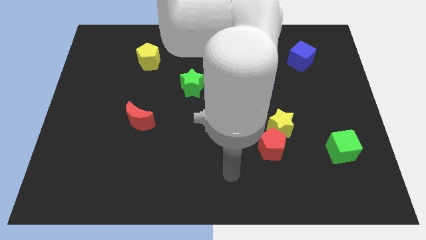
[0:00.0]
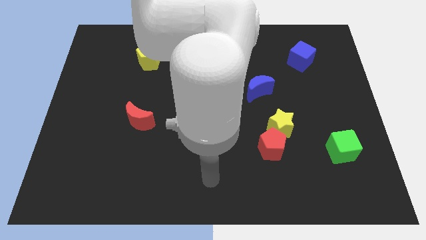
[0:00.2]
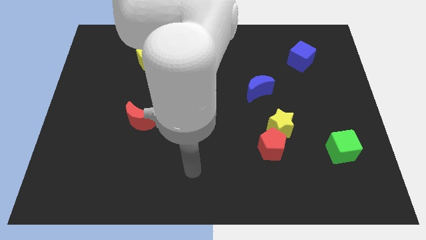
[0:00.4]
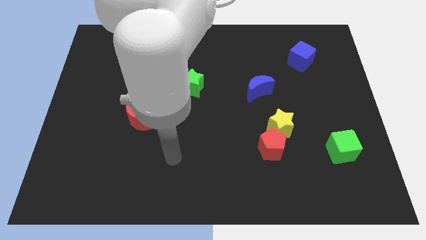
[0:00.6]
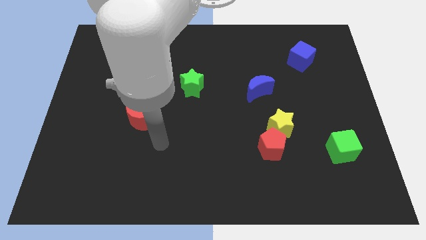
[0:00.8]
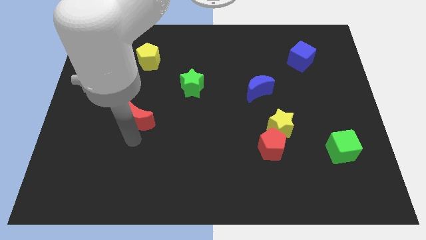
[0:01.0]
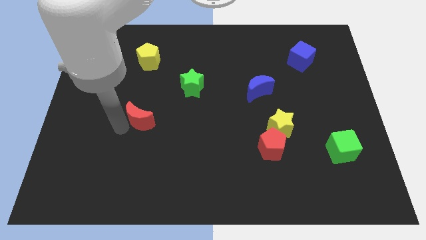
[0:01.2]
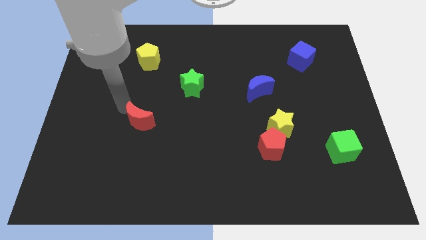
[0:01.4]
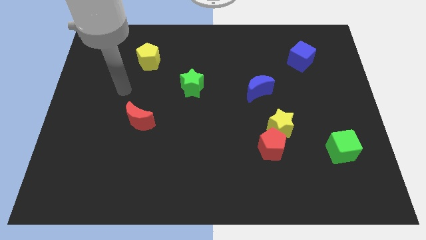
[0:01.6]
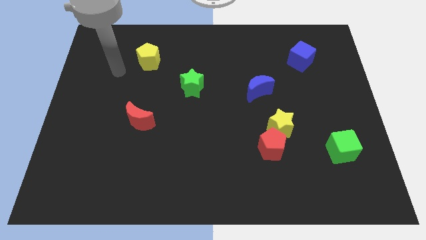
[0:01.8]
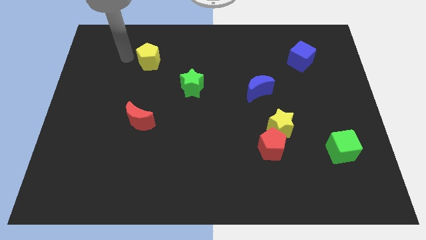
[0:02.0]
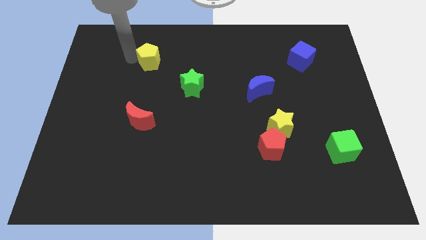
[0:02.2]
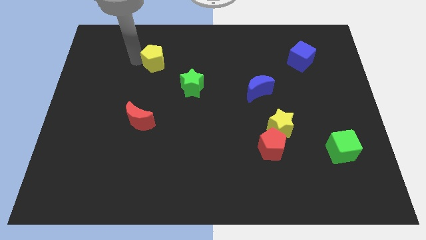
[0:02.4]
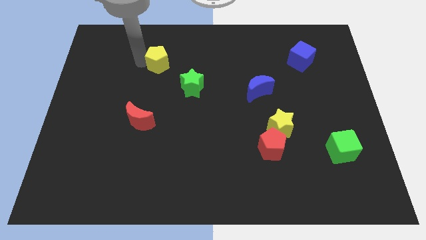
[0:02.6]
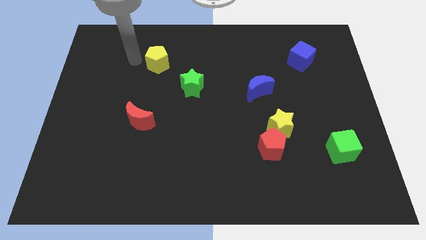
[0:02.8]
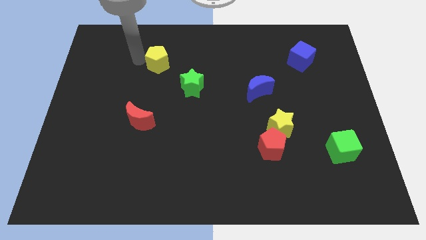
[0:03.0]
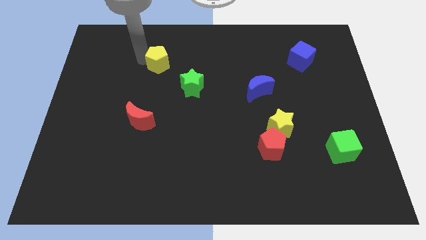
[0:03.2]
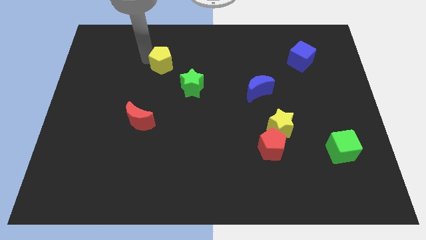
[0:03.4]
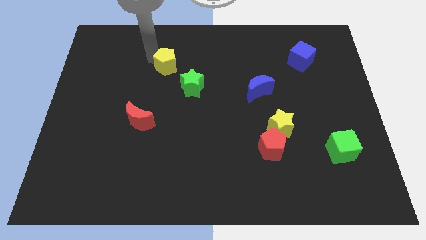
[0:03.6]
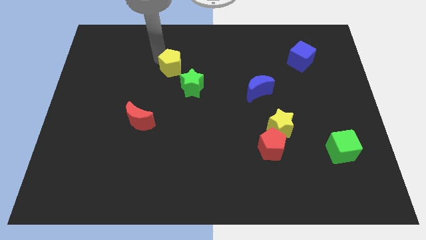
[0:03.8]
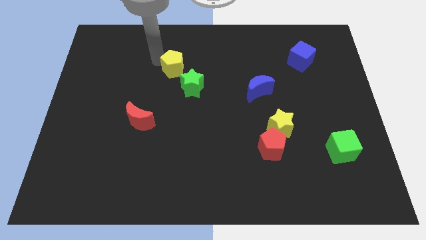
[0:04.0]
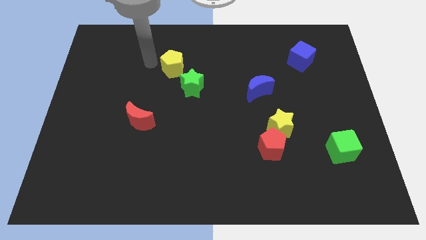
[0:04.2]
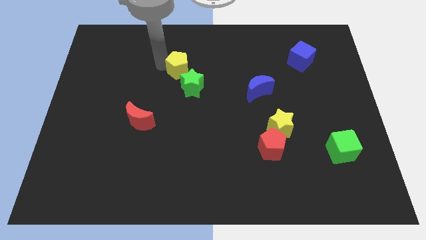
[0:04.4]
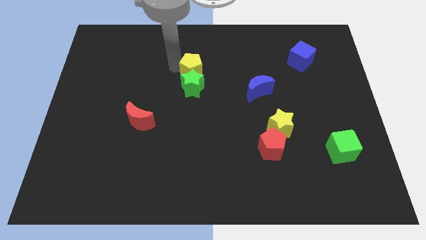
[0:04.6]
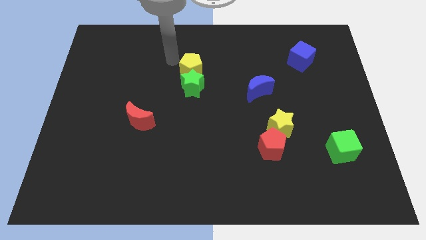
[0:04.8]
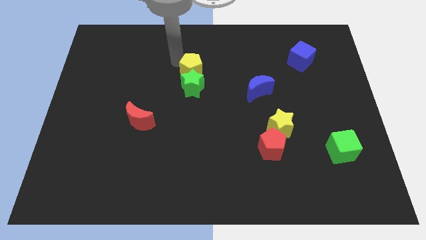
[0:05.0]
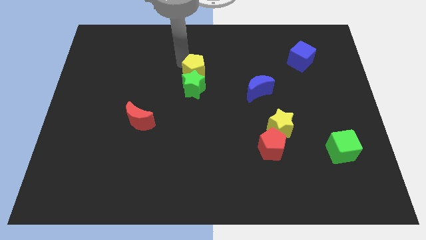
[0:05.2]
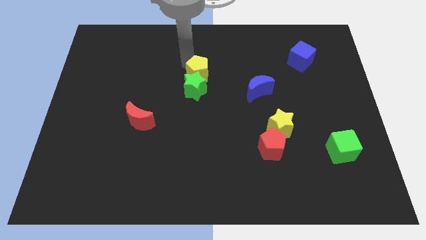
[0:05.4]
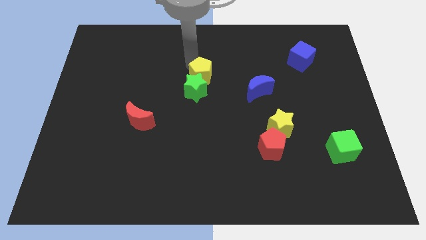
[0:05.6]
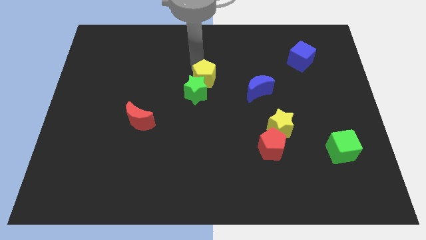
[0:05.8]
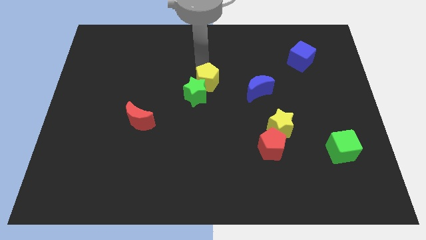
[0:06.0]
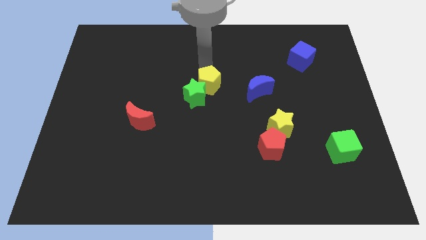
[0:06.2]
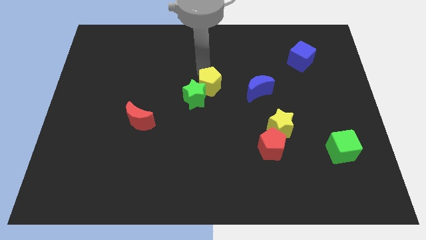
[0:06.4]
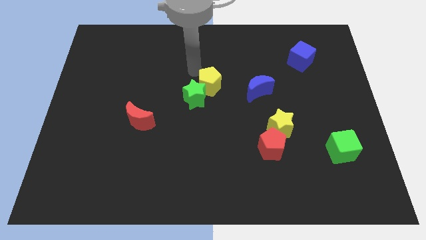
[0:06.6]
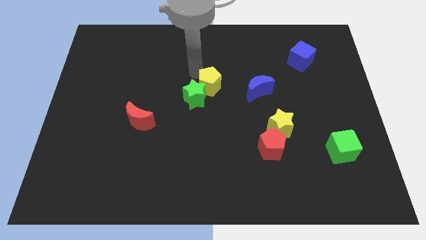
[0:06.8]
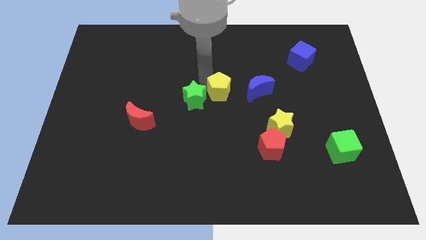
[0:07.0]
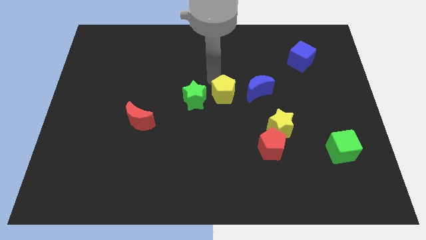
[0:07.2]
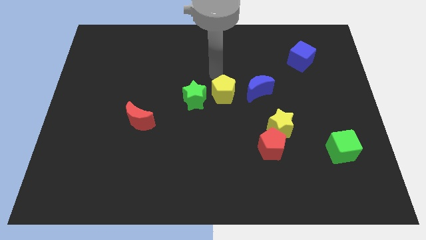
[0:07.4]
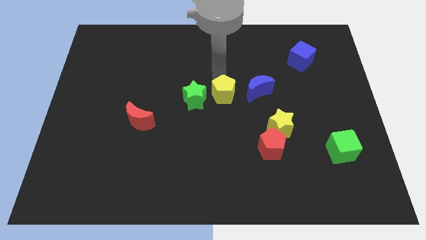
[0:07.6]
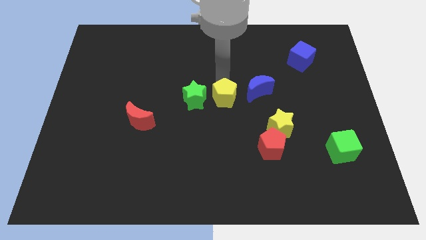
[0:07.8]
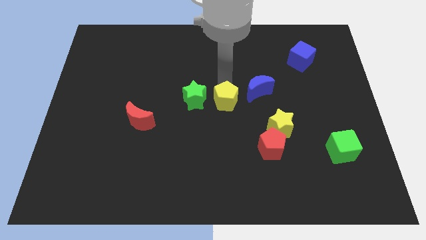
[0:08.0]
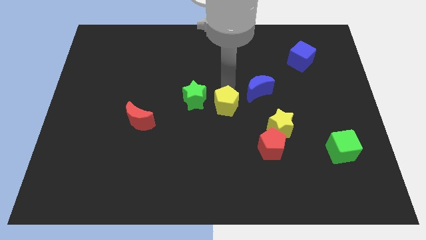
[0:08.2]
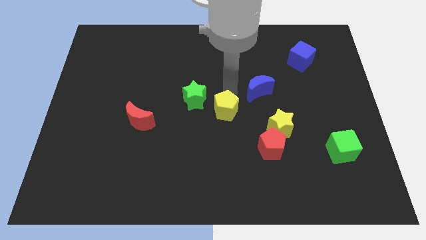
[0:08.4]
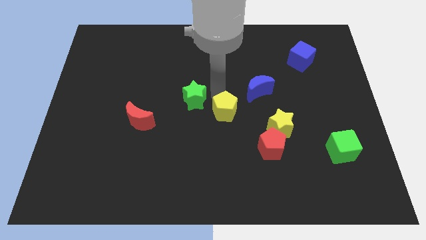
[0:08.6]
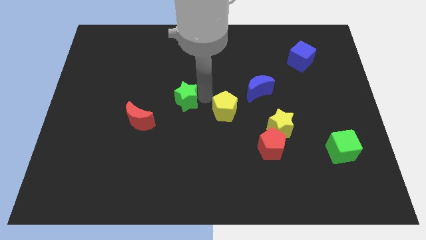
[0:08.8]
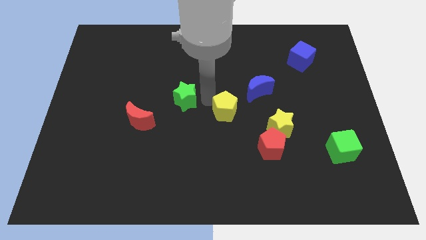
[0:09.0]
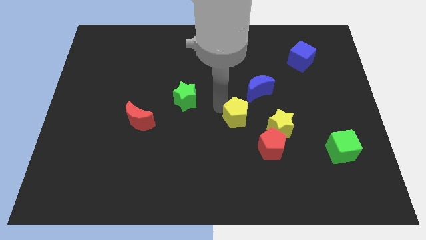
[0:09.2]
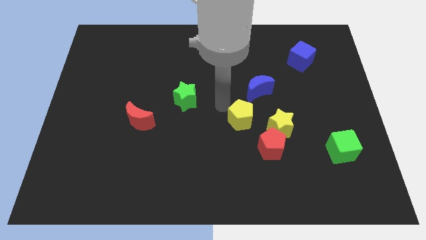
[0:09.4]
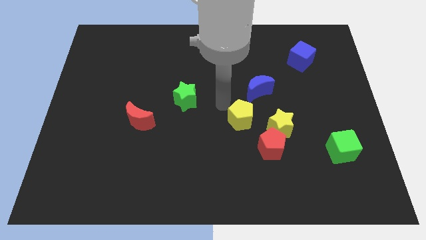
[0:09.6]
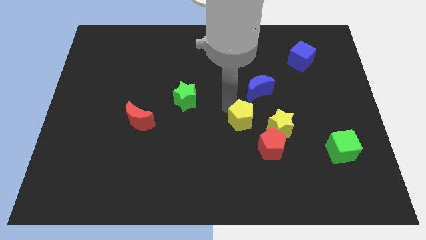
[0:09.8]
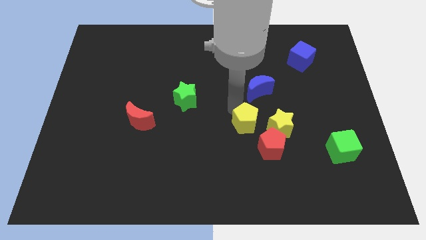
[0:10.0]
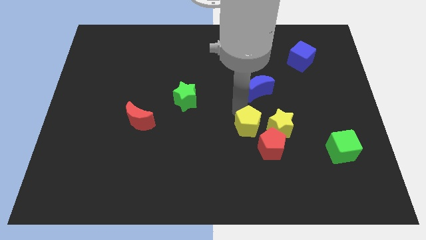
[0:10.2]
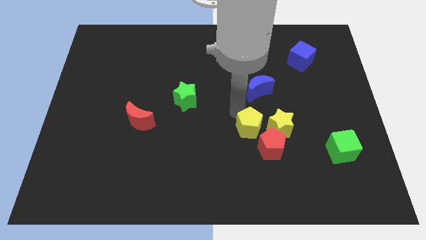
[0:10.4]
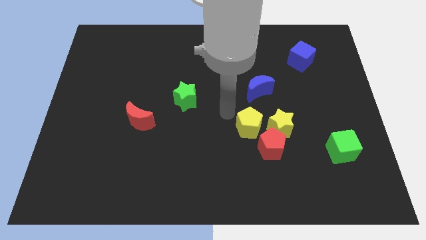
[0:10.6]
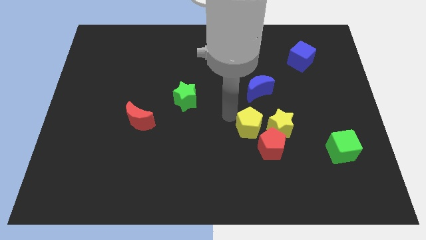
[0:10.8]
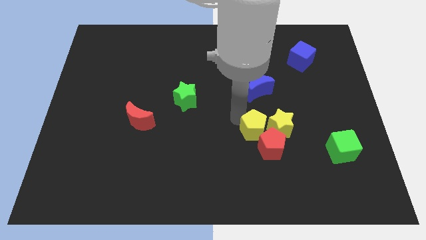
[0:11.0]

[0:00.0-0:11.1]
push the yellow pentagon close to the red pentagon

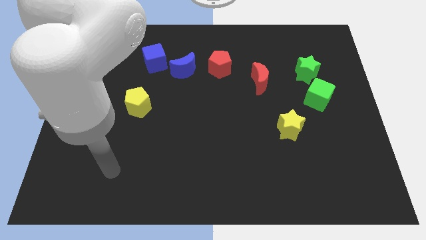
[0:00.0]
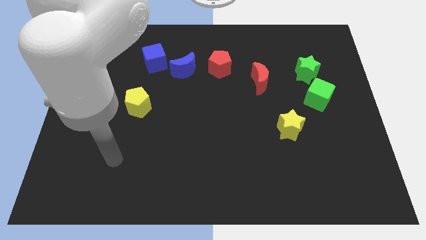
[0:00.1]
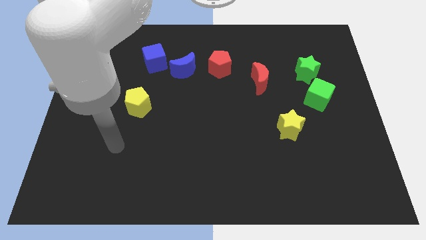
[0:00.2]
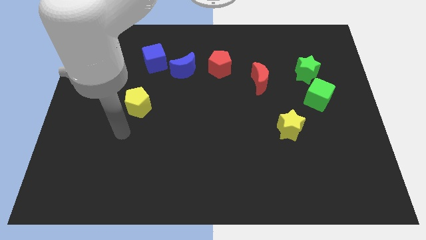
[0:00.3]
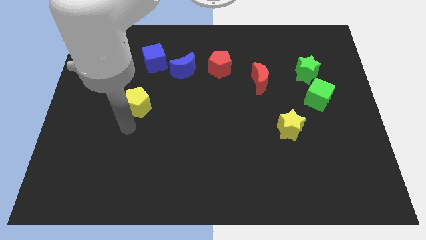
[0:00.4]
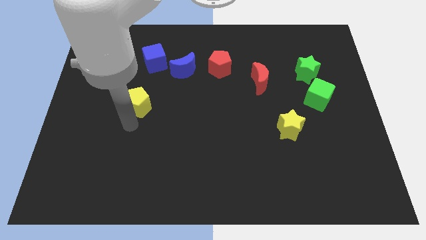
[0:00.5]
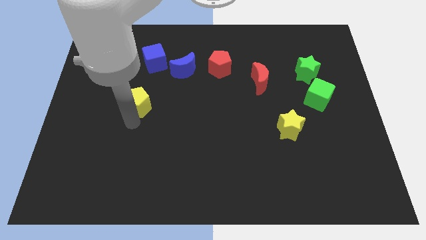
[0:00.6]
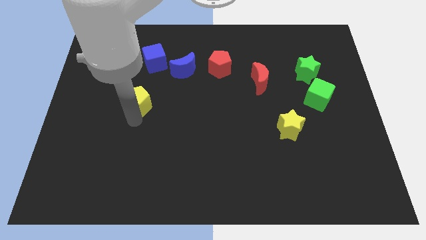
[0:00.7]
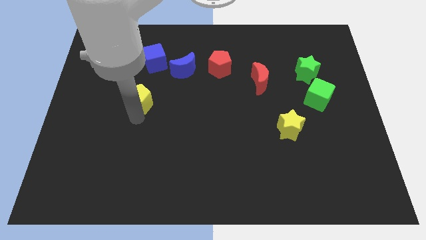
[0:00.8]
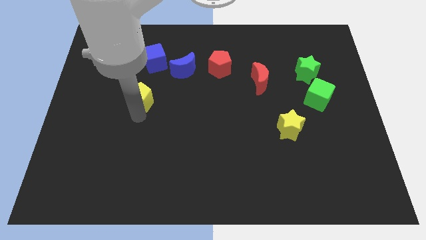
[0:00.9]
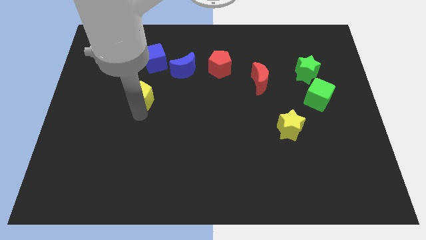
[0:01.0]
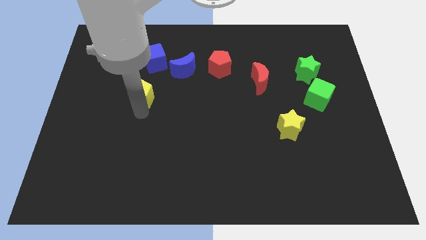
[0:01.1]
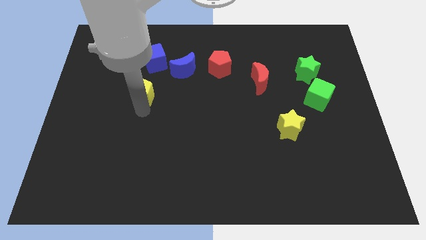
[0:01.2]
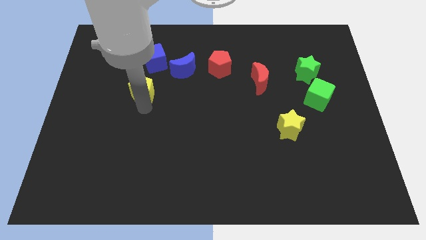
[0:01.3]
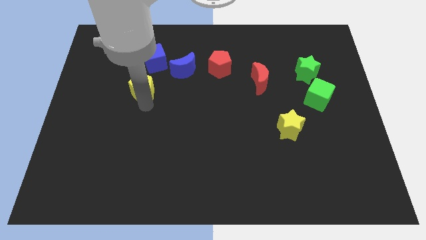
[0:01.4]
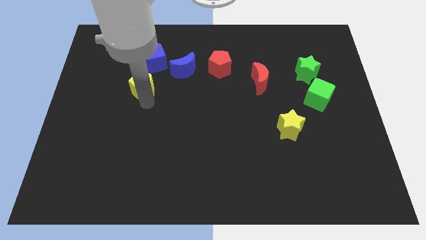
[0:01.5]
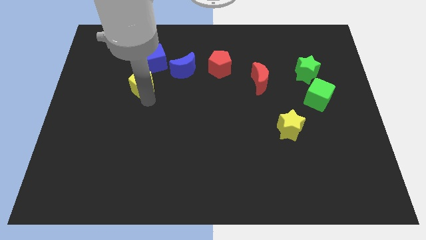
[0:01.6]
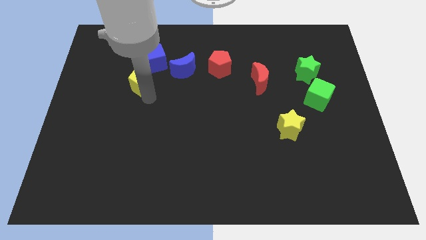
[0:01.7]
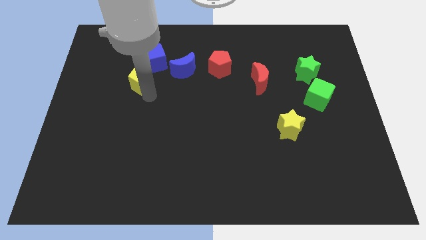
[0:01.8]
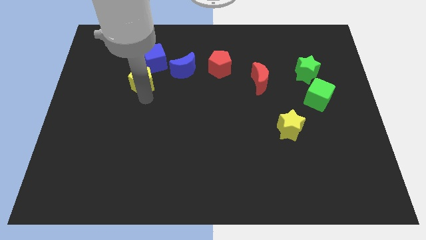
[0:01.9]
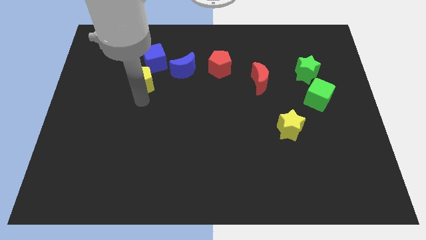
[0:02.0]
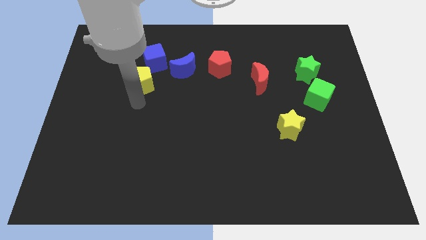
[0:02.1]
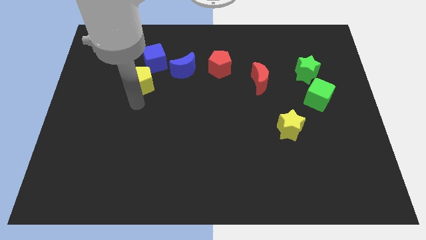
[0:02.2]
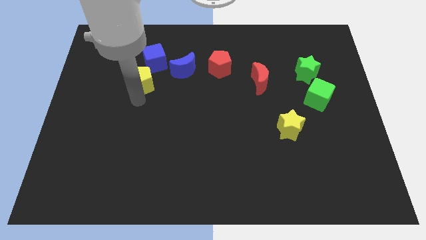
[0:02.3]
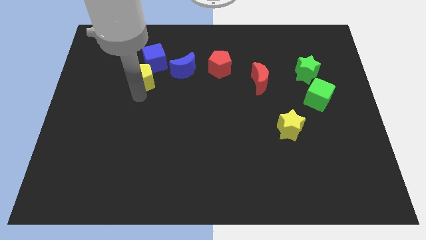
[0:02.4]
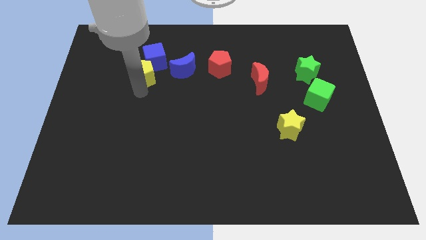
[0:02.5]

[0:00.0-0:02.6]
slide the yellow pentagon towards the blue cube
